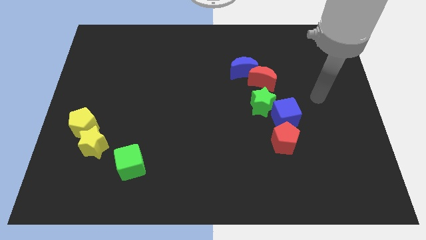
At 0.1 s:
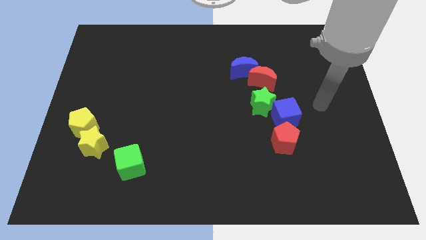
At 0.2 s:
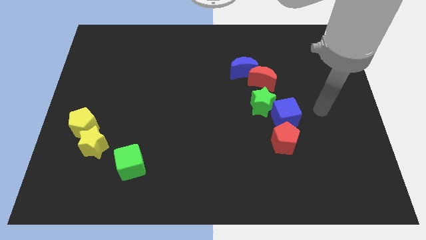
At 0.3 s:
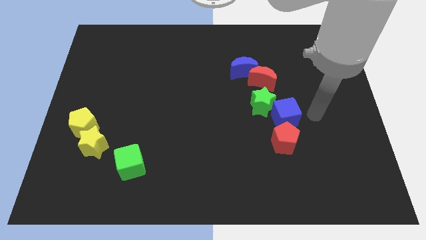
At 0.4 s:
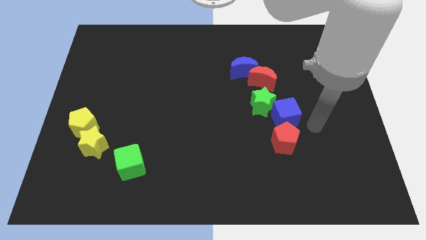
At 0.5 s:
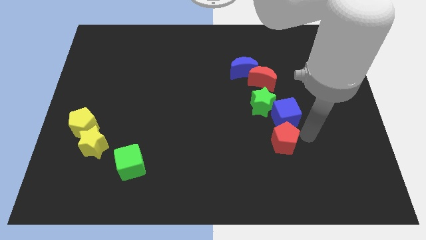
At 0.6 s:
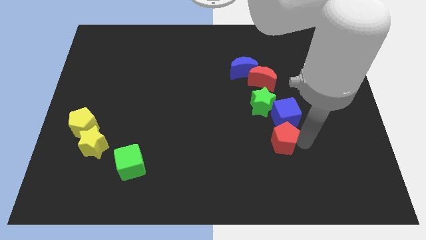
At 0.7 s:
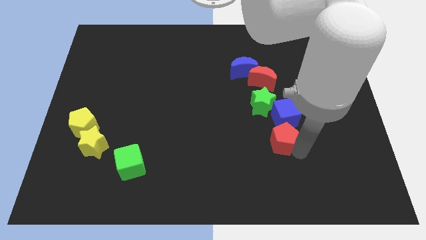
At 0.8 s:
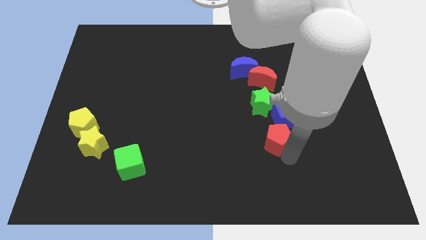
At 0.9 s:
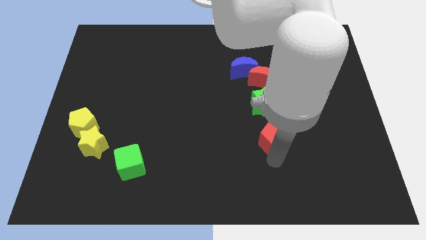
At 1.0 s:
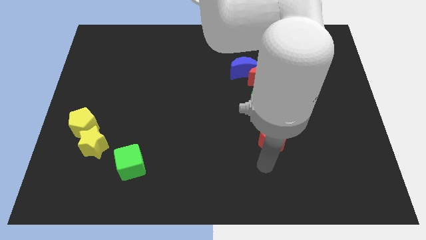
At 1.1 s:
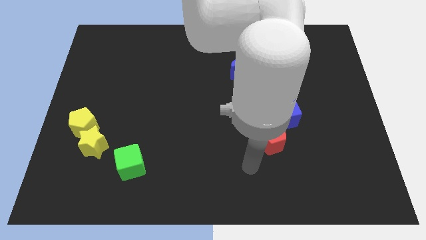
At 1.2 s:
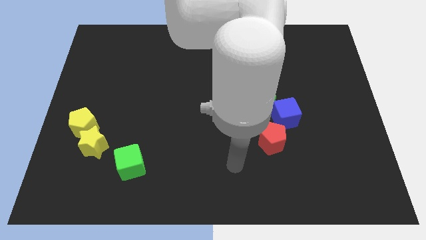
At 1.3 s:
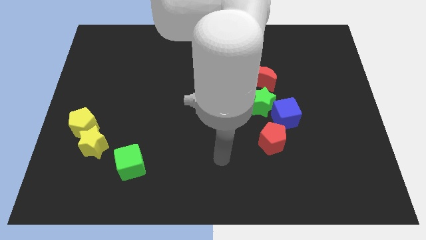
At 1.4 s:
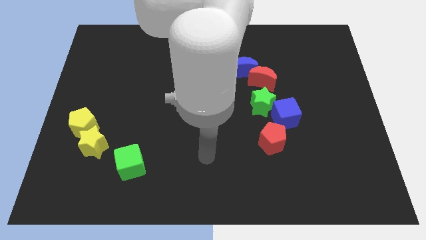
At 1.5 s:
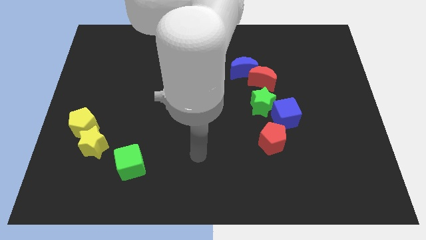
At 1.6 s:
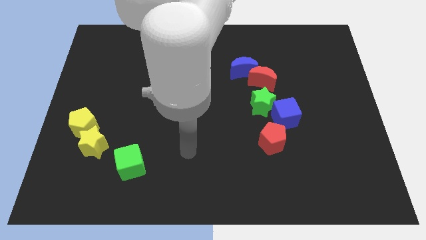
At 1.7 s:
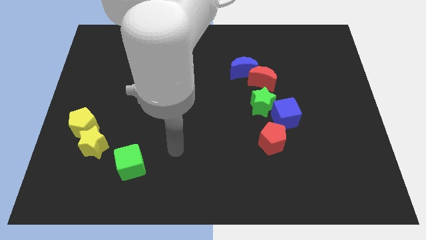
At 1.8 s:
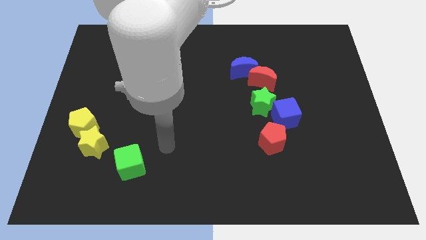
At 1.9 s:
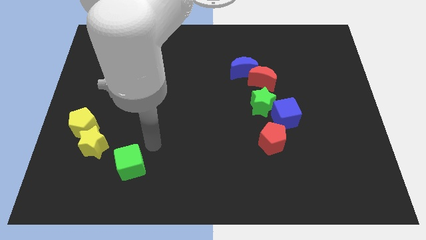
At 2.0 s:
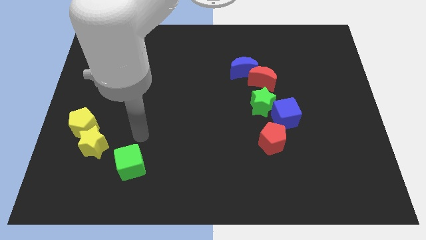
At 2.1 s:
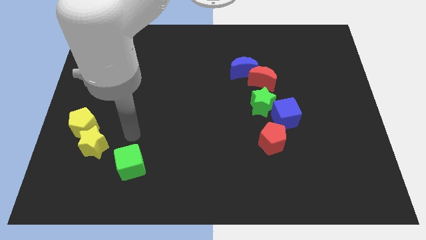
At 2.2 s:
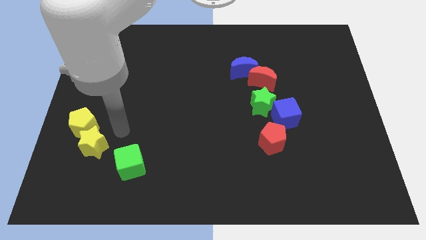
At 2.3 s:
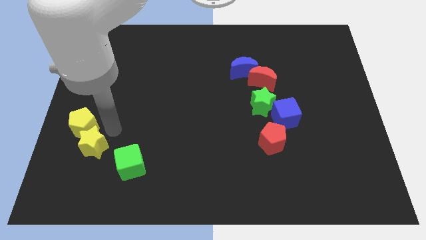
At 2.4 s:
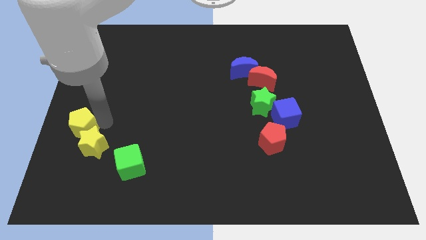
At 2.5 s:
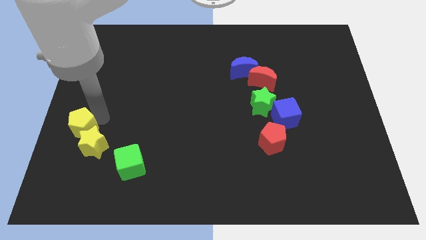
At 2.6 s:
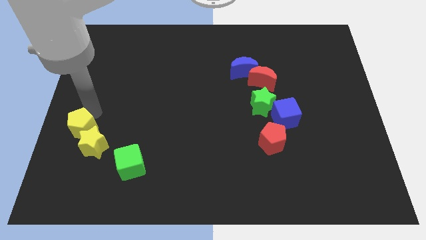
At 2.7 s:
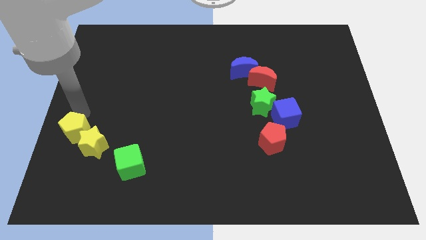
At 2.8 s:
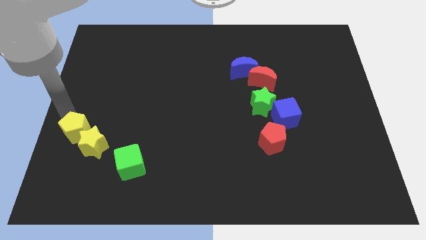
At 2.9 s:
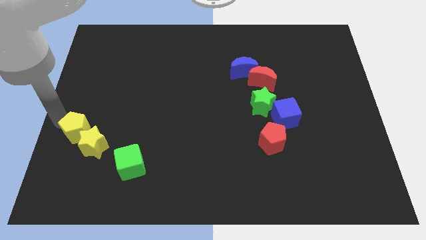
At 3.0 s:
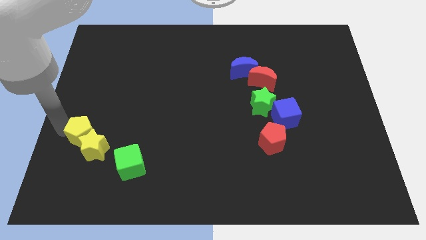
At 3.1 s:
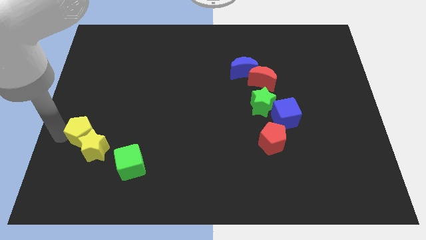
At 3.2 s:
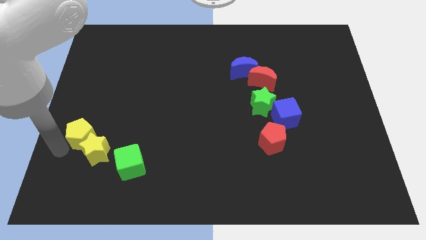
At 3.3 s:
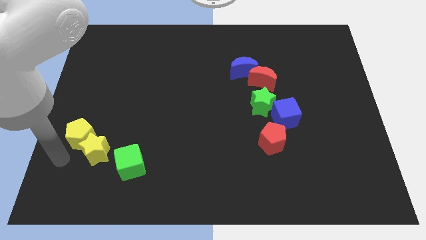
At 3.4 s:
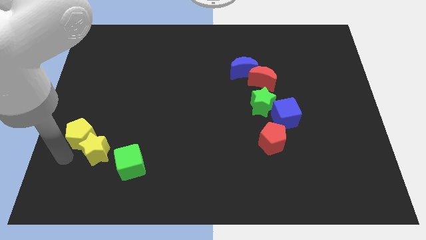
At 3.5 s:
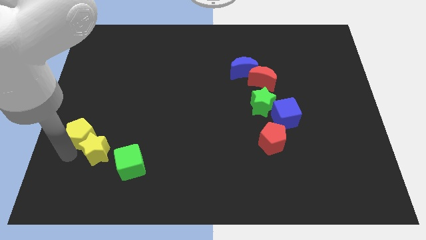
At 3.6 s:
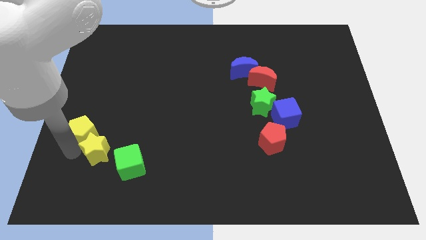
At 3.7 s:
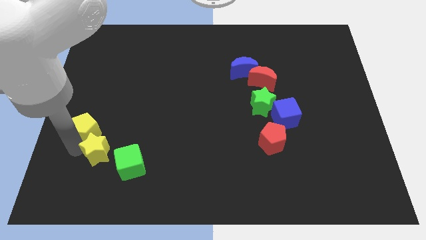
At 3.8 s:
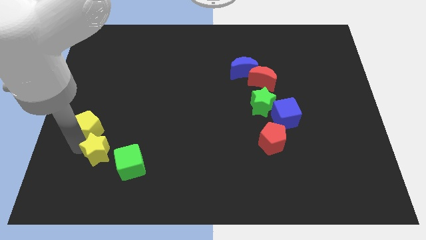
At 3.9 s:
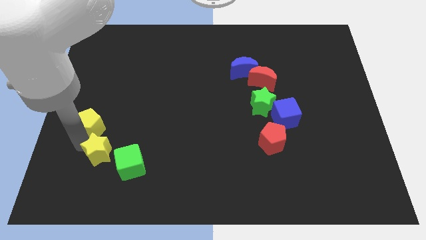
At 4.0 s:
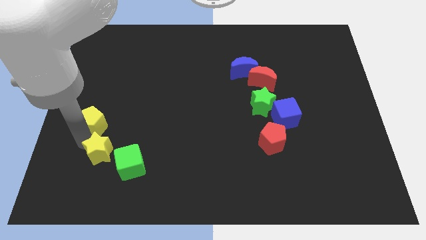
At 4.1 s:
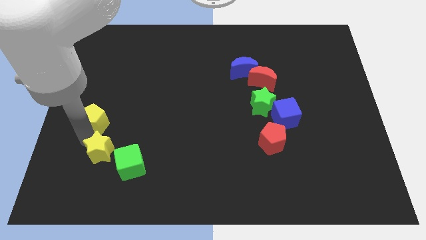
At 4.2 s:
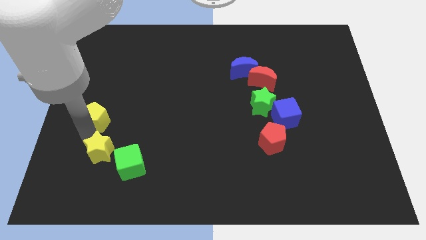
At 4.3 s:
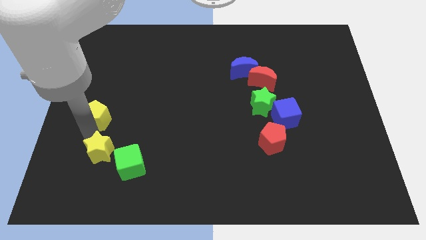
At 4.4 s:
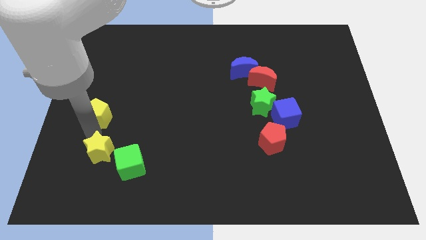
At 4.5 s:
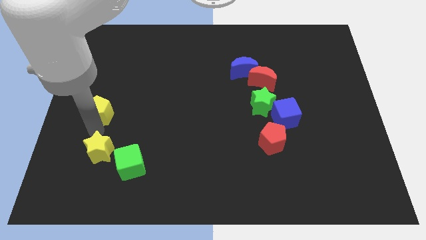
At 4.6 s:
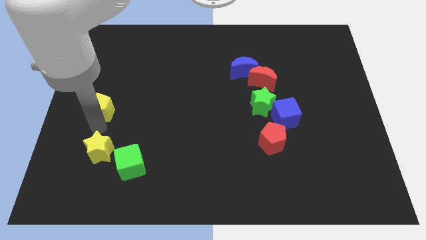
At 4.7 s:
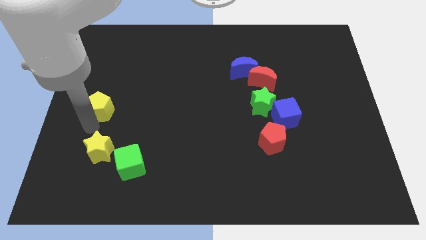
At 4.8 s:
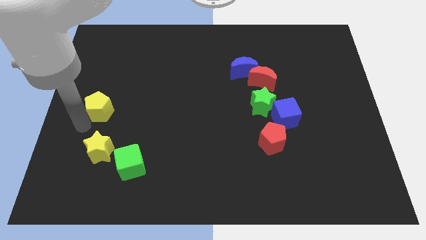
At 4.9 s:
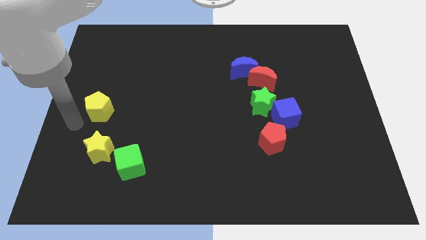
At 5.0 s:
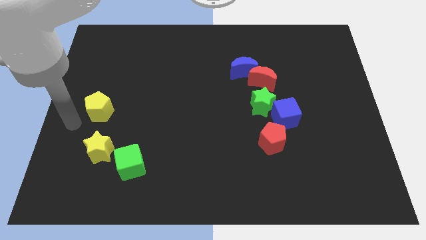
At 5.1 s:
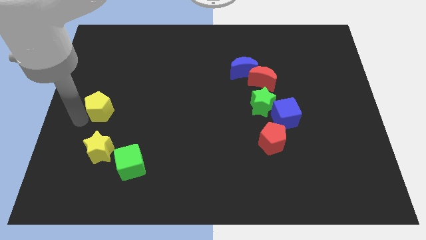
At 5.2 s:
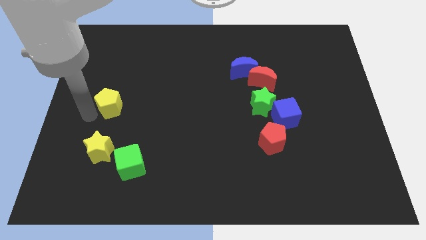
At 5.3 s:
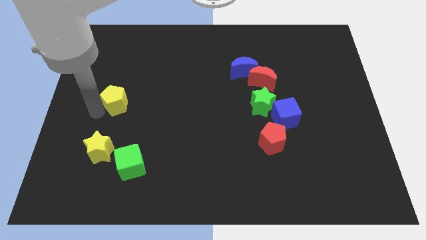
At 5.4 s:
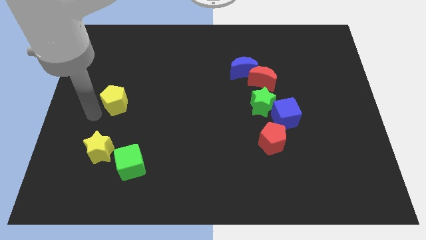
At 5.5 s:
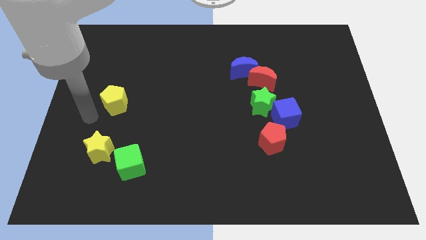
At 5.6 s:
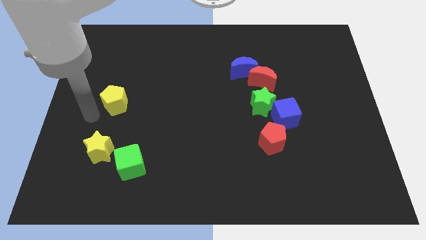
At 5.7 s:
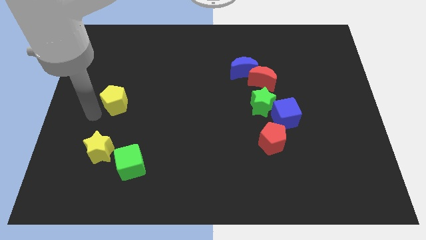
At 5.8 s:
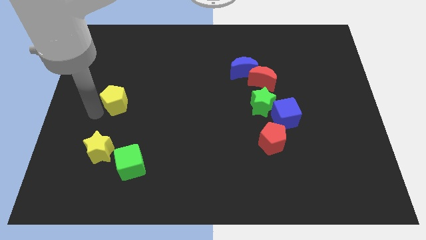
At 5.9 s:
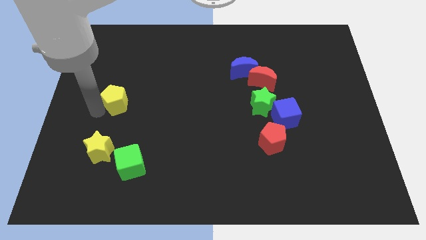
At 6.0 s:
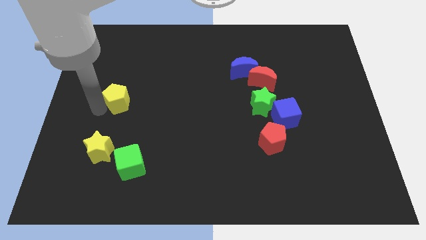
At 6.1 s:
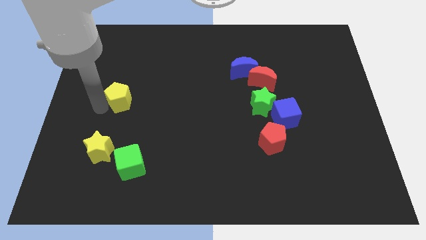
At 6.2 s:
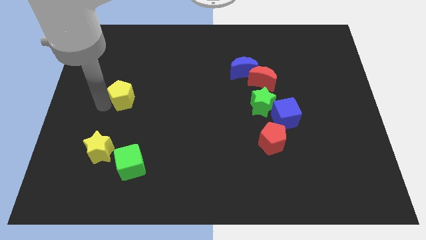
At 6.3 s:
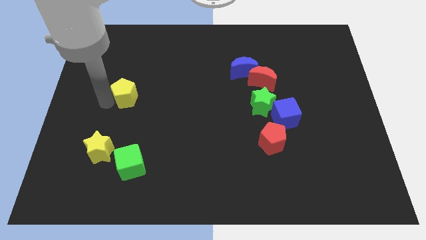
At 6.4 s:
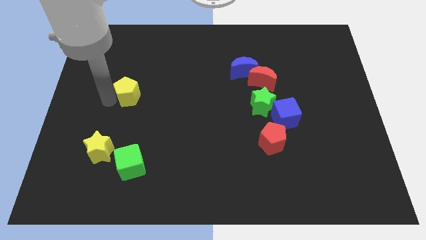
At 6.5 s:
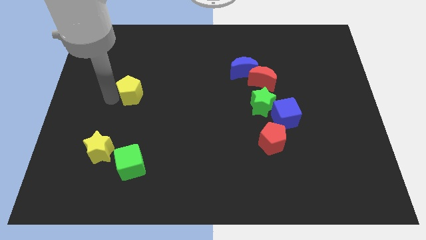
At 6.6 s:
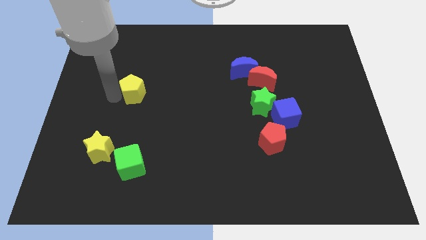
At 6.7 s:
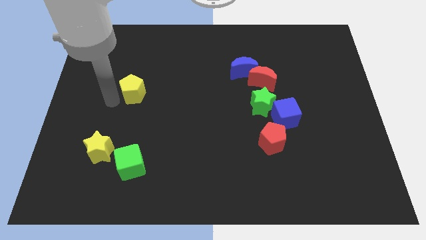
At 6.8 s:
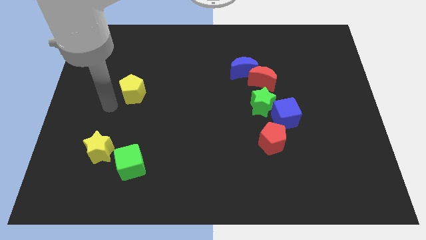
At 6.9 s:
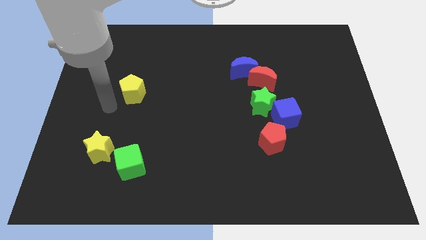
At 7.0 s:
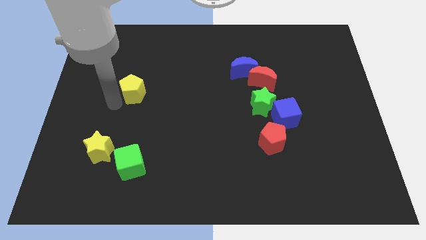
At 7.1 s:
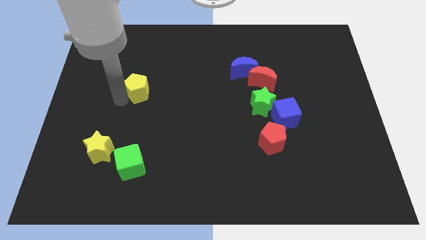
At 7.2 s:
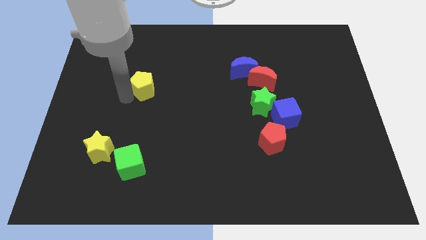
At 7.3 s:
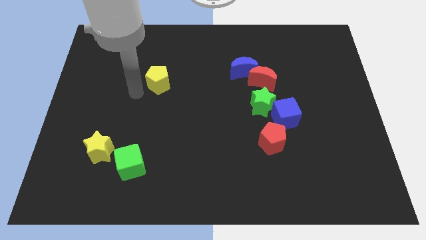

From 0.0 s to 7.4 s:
push the yellow pentagon up and right diagonally
